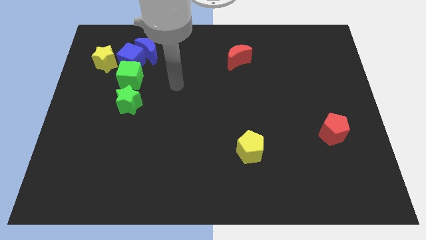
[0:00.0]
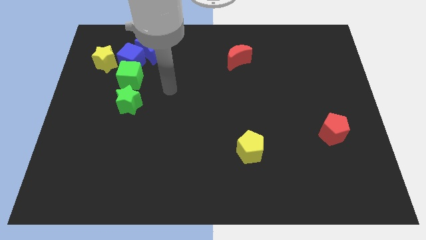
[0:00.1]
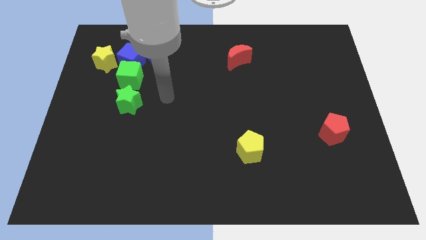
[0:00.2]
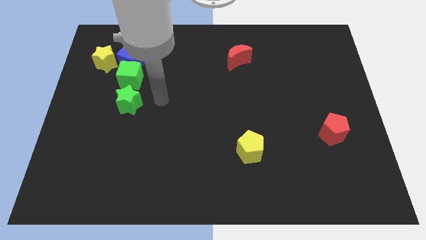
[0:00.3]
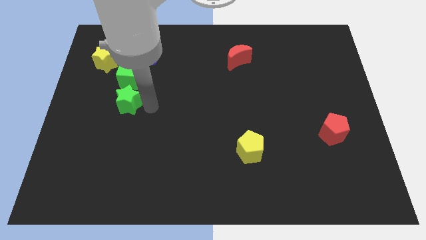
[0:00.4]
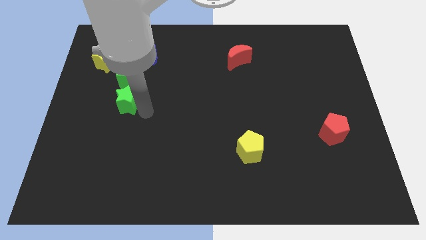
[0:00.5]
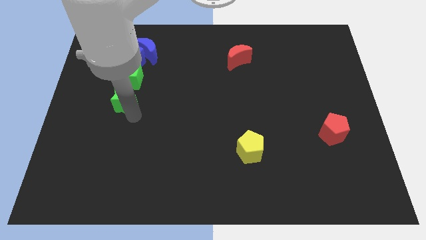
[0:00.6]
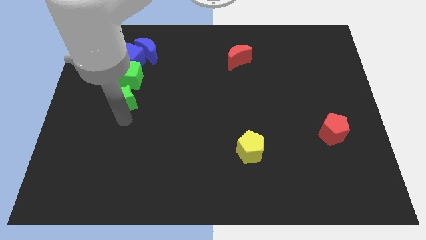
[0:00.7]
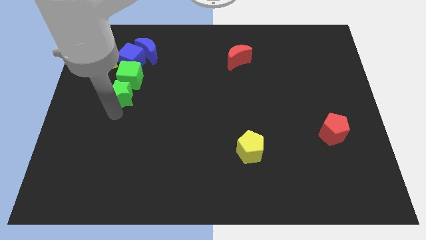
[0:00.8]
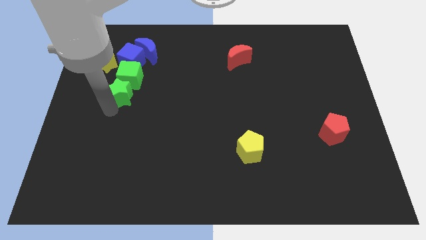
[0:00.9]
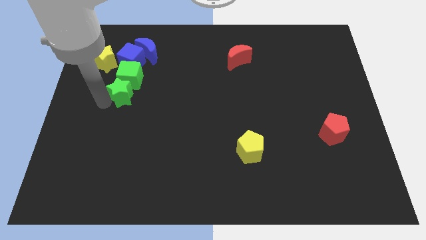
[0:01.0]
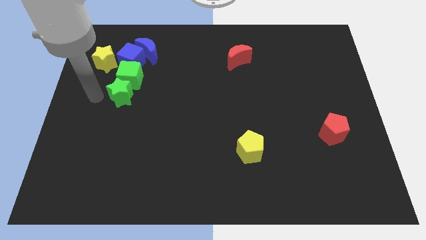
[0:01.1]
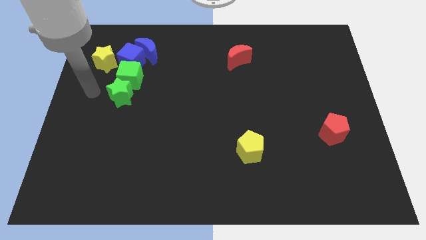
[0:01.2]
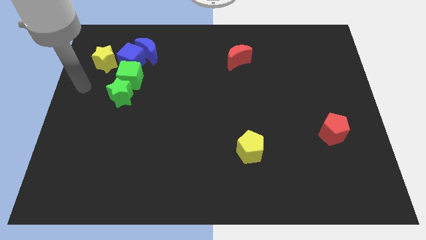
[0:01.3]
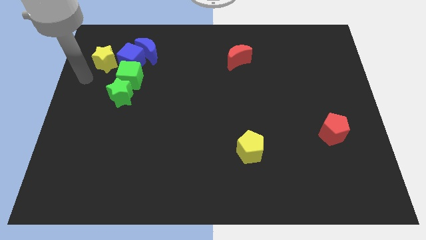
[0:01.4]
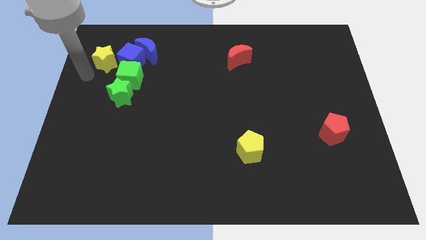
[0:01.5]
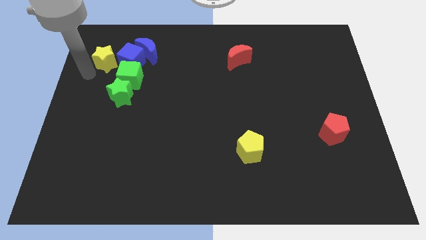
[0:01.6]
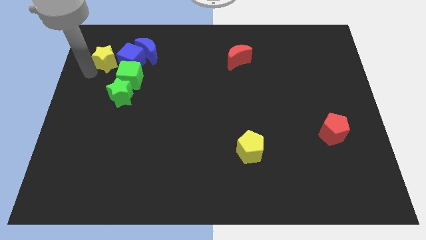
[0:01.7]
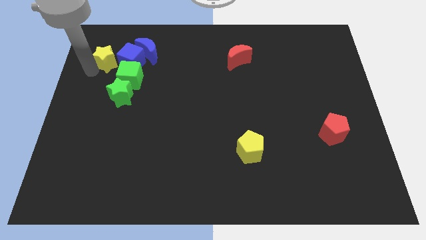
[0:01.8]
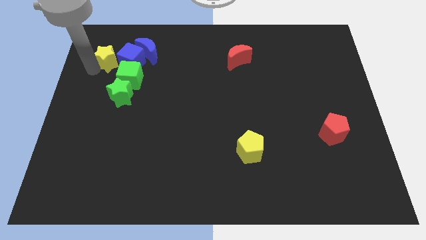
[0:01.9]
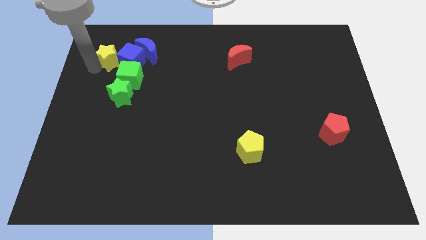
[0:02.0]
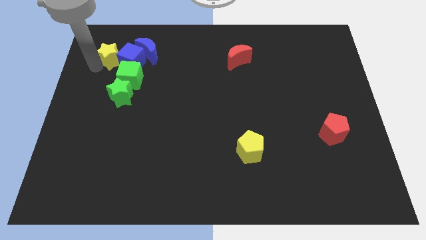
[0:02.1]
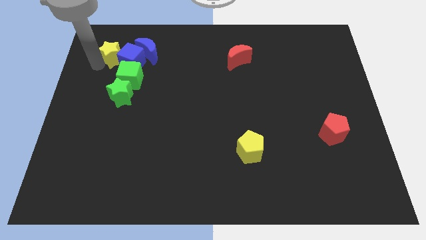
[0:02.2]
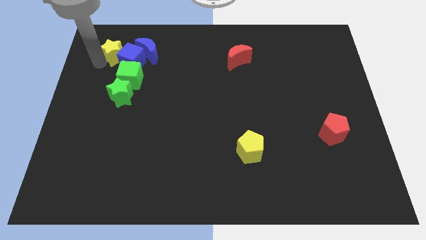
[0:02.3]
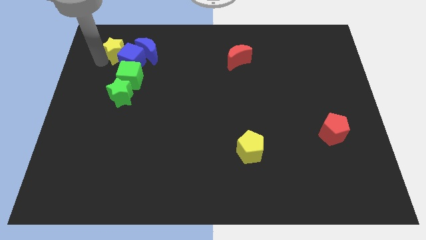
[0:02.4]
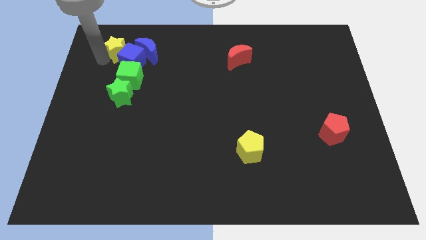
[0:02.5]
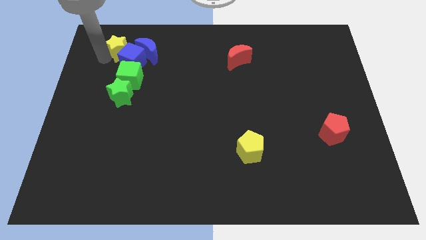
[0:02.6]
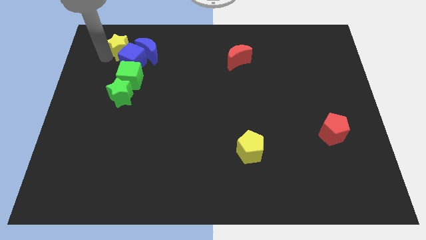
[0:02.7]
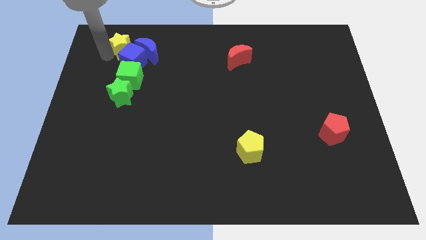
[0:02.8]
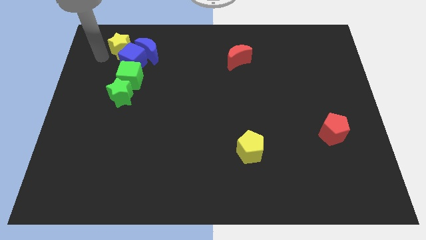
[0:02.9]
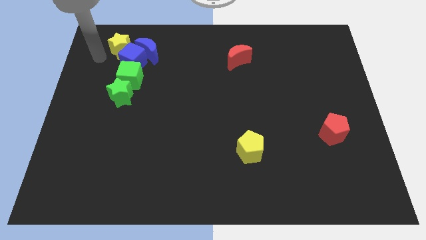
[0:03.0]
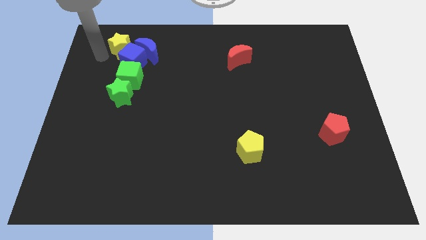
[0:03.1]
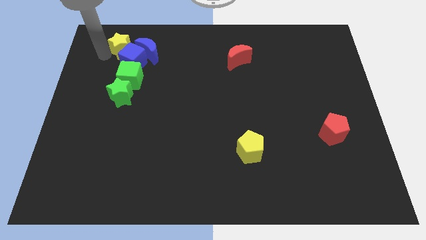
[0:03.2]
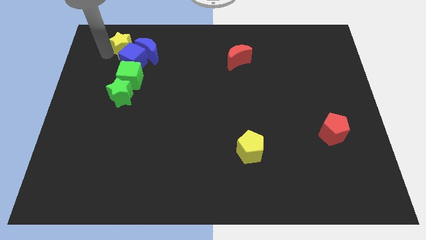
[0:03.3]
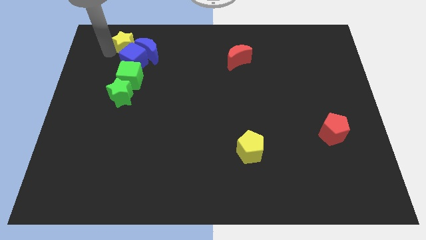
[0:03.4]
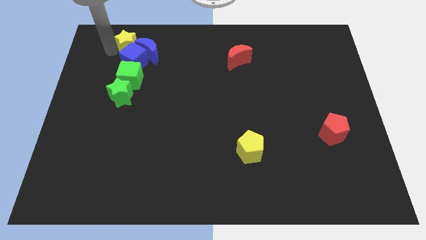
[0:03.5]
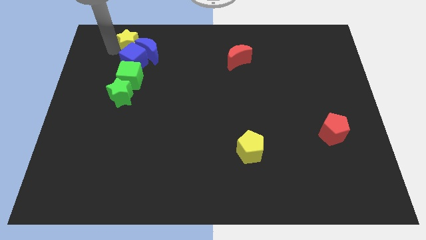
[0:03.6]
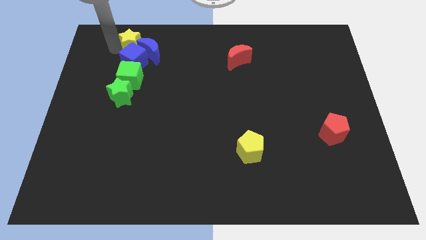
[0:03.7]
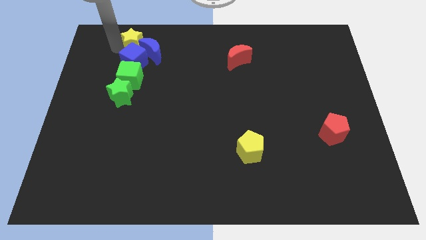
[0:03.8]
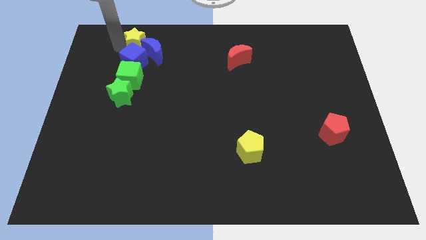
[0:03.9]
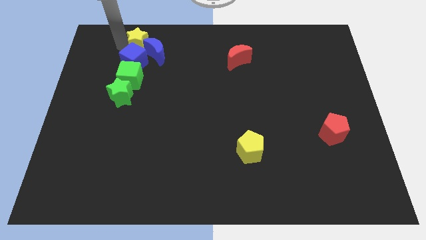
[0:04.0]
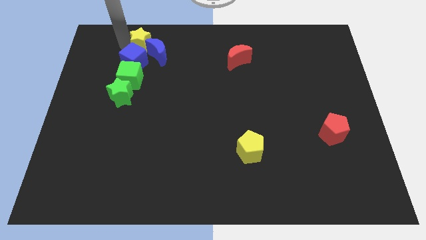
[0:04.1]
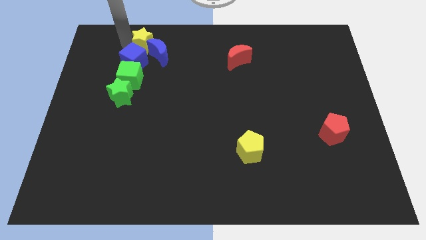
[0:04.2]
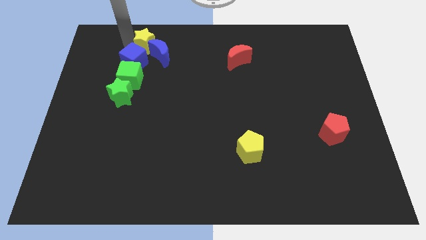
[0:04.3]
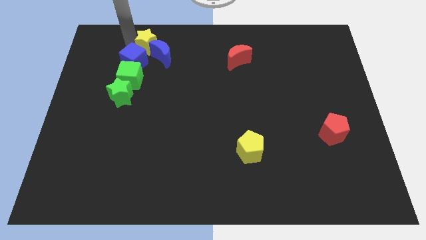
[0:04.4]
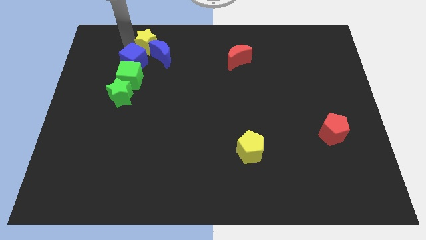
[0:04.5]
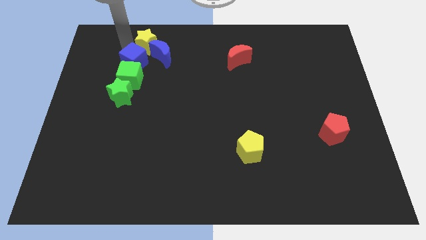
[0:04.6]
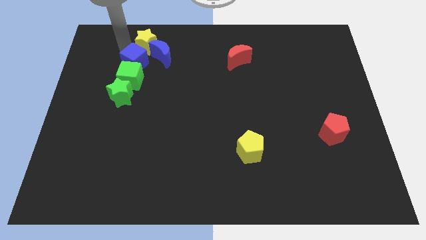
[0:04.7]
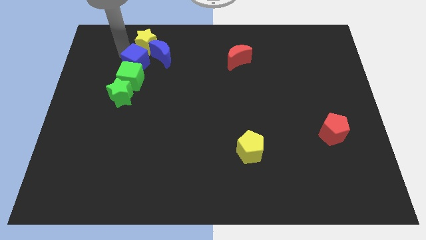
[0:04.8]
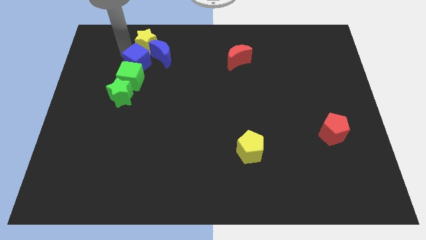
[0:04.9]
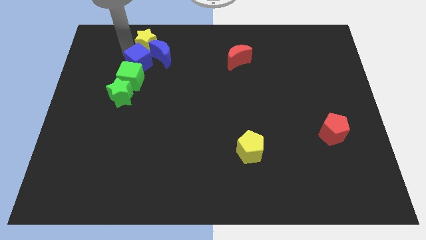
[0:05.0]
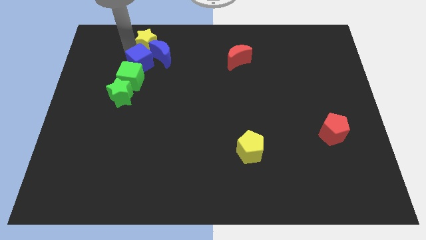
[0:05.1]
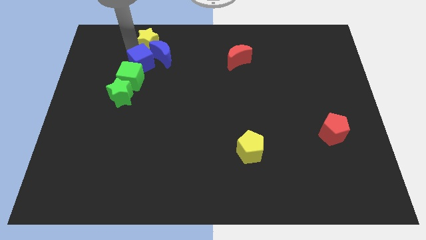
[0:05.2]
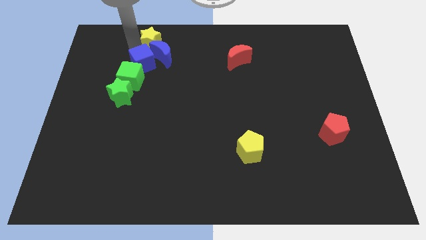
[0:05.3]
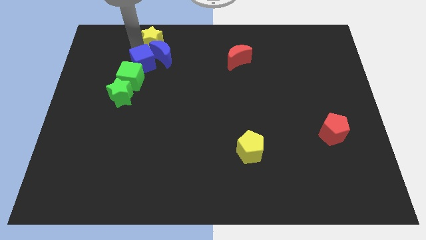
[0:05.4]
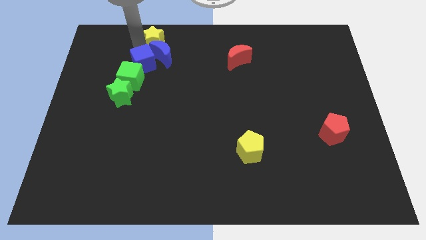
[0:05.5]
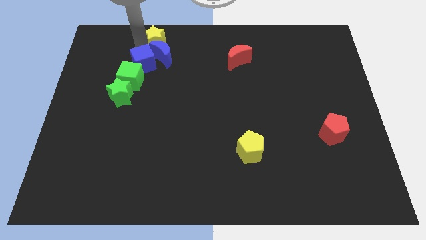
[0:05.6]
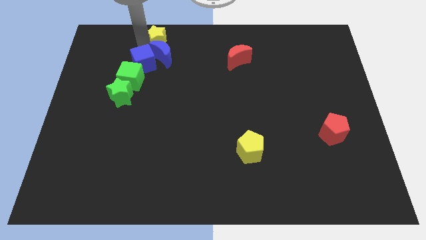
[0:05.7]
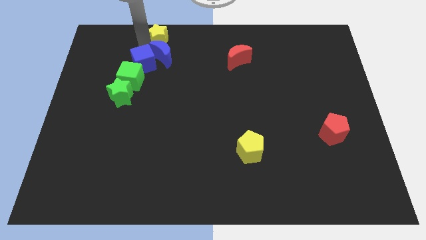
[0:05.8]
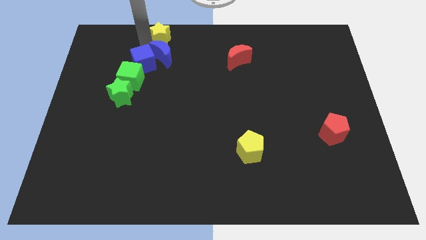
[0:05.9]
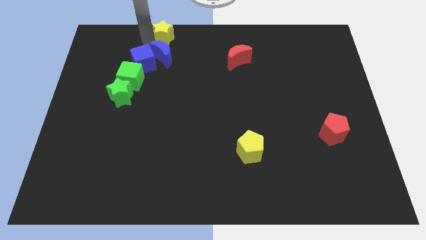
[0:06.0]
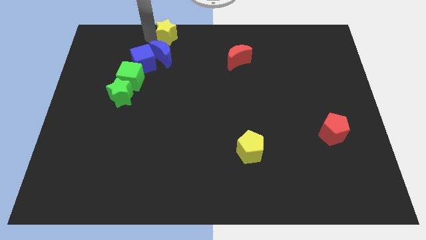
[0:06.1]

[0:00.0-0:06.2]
put the yellow star to the top side

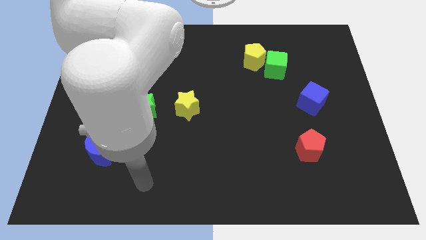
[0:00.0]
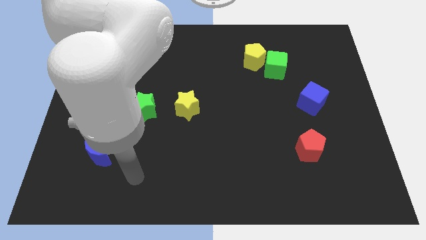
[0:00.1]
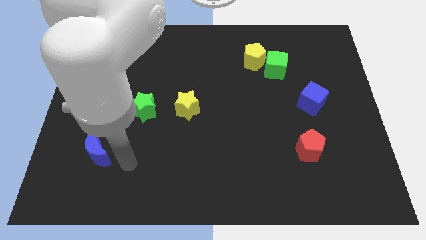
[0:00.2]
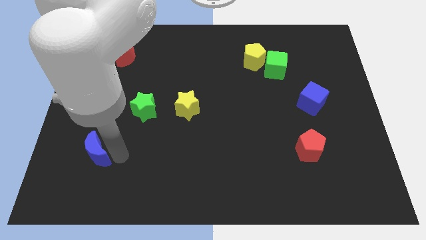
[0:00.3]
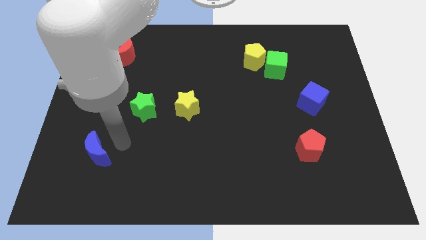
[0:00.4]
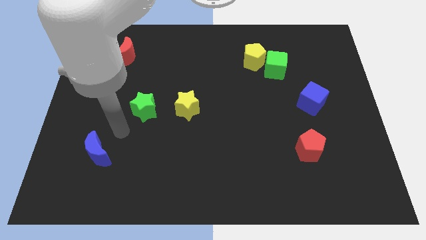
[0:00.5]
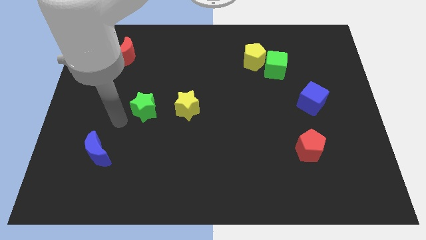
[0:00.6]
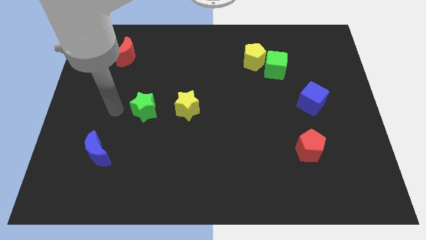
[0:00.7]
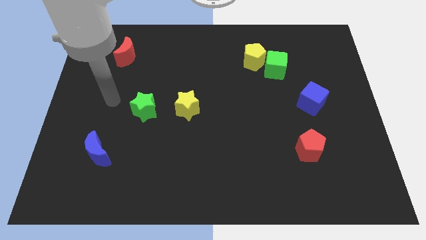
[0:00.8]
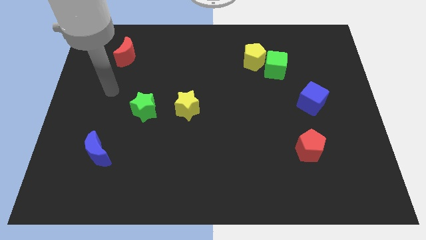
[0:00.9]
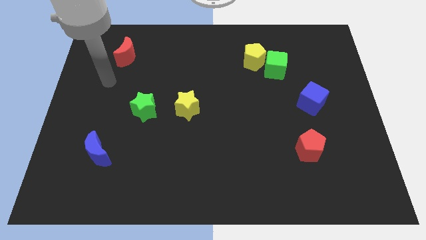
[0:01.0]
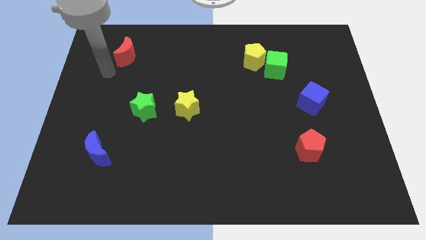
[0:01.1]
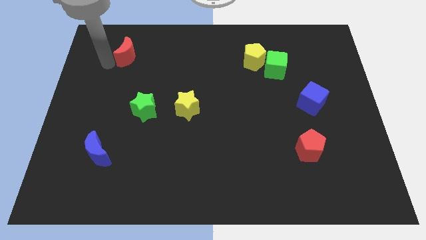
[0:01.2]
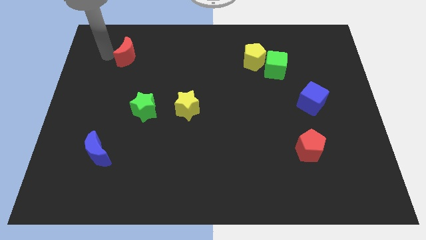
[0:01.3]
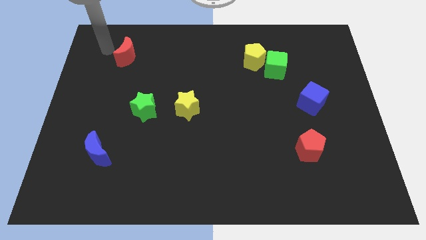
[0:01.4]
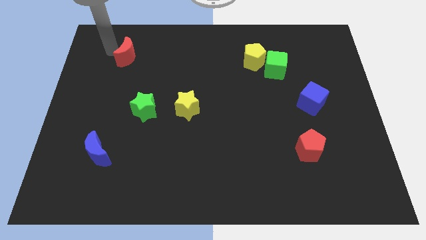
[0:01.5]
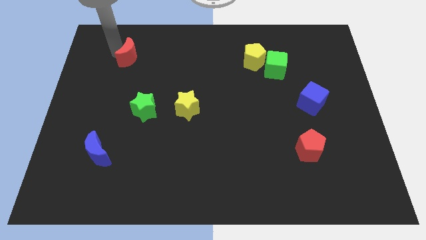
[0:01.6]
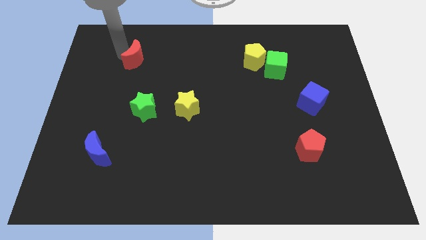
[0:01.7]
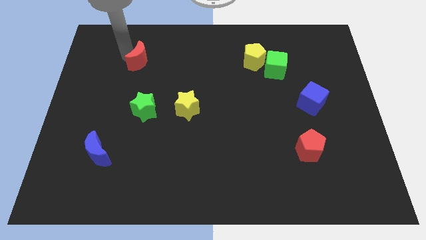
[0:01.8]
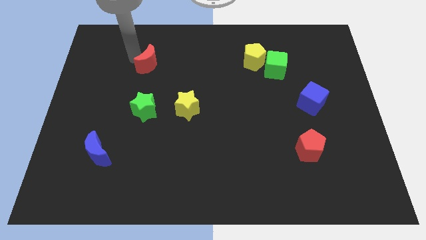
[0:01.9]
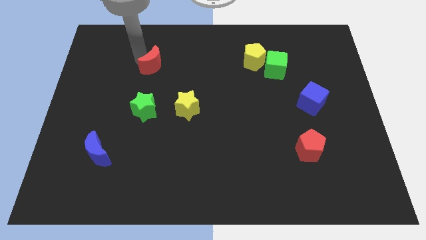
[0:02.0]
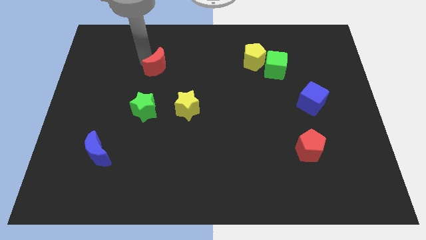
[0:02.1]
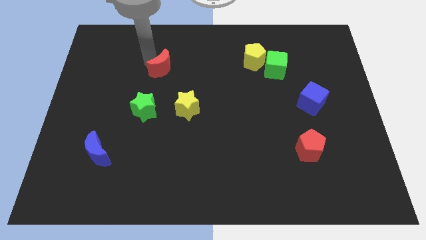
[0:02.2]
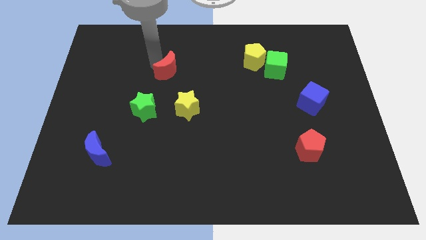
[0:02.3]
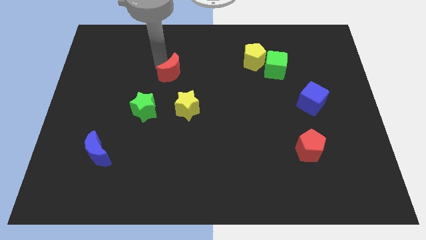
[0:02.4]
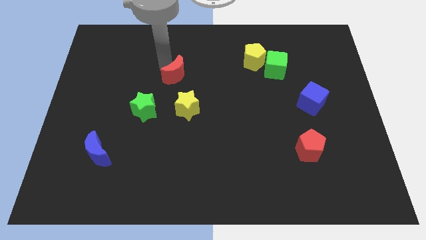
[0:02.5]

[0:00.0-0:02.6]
slide the red moon to the center of the board
